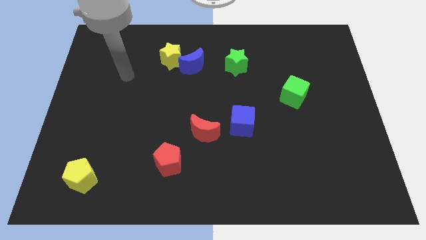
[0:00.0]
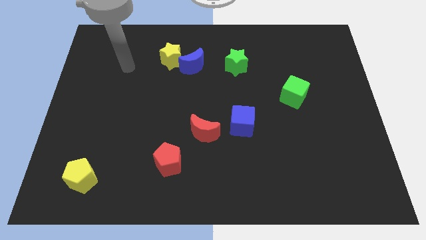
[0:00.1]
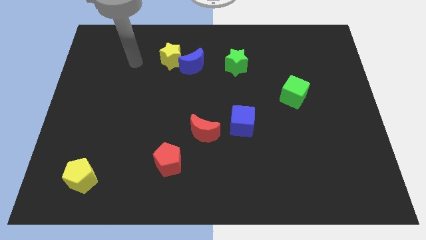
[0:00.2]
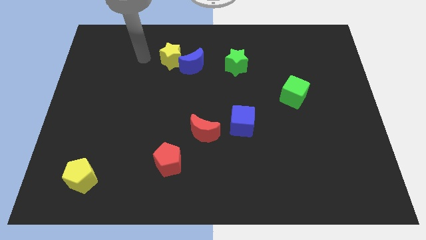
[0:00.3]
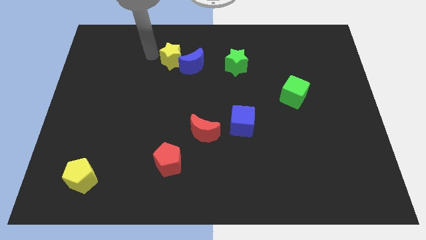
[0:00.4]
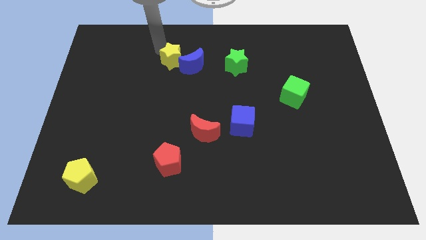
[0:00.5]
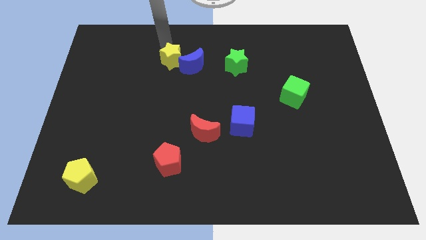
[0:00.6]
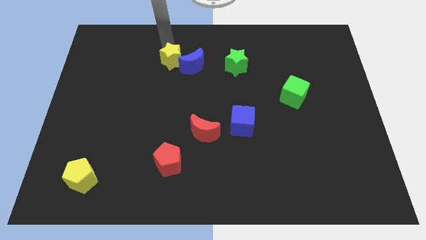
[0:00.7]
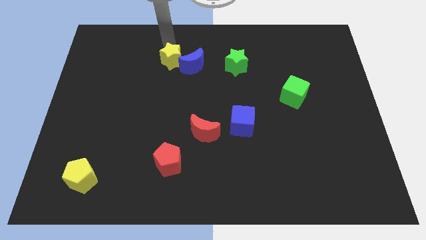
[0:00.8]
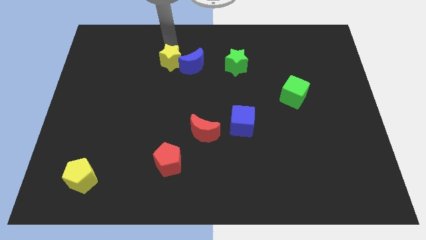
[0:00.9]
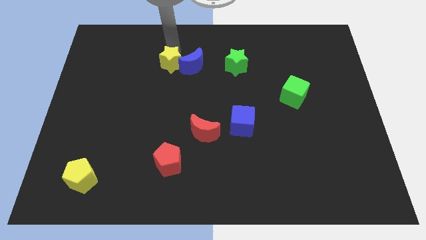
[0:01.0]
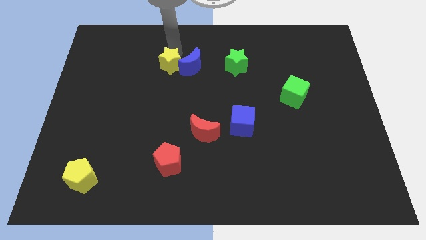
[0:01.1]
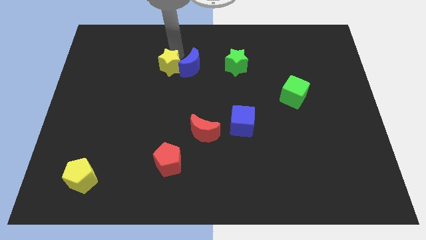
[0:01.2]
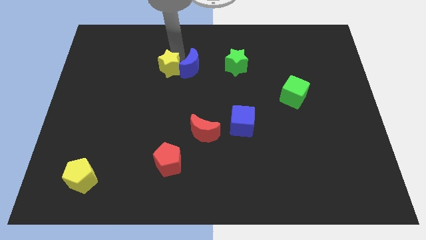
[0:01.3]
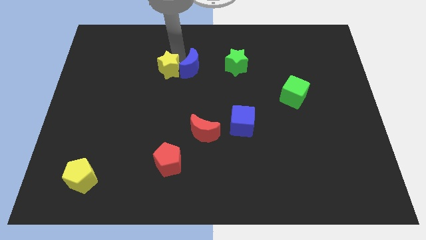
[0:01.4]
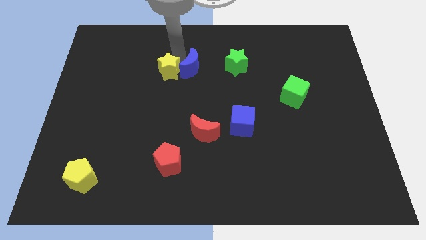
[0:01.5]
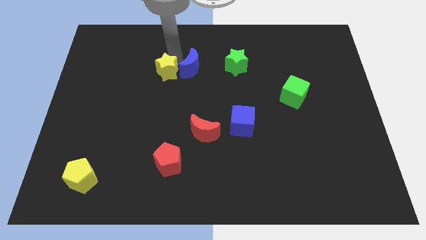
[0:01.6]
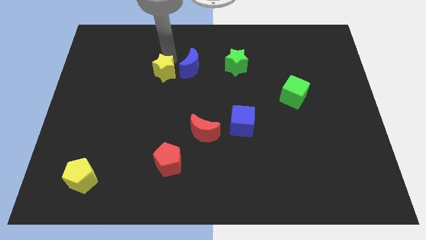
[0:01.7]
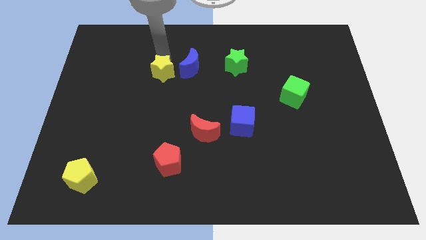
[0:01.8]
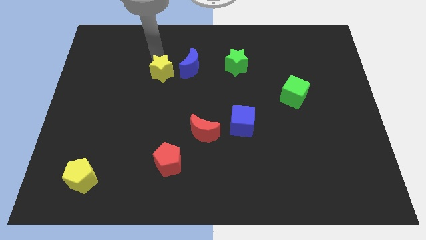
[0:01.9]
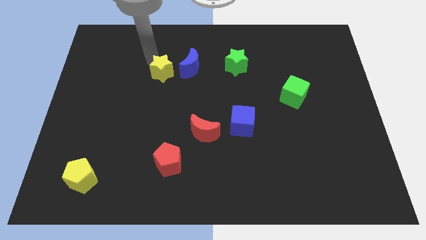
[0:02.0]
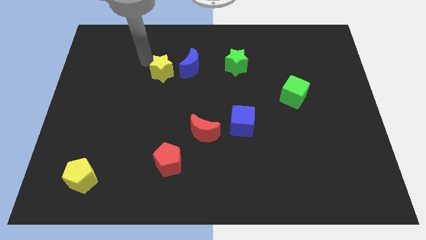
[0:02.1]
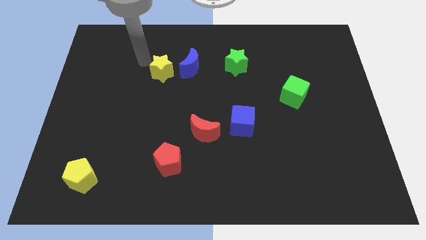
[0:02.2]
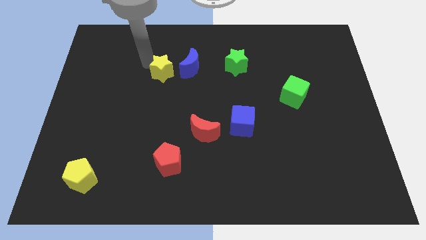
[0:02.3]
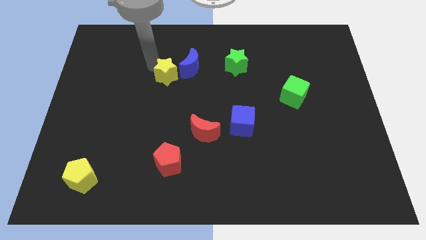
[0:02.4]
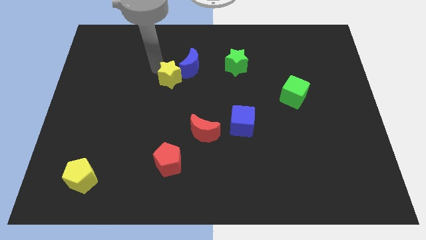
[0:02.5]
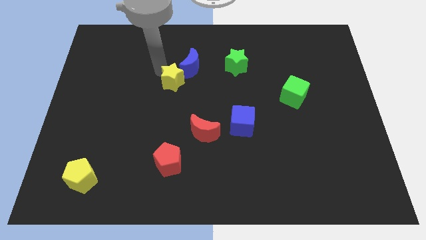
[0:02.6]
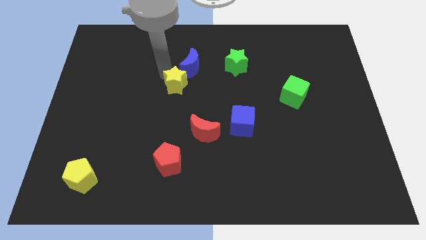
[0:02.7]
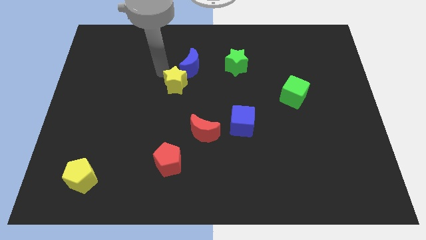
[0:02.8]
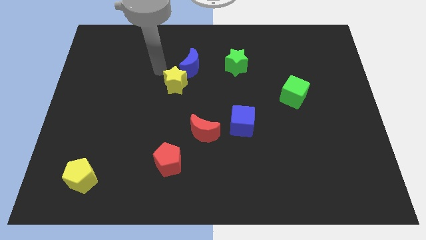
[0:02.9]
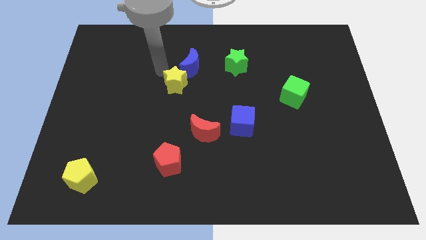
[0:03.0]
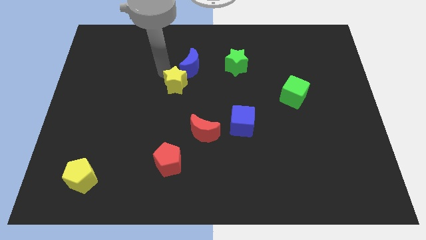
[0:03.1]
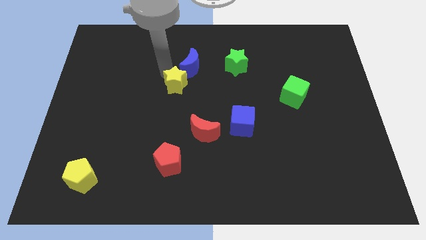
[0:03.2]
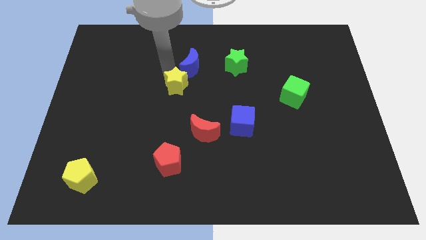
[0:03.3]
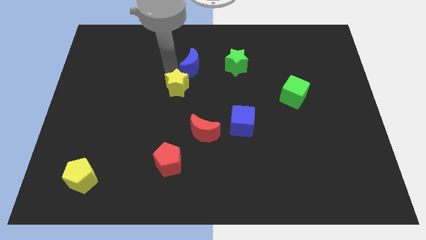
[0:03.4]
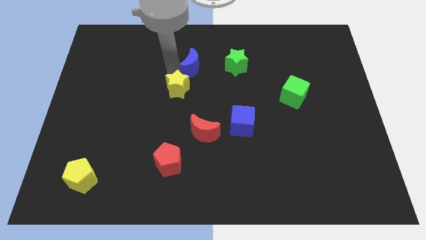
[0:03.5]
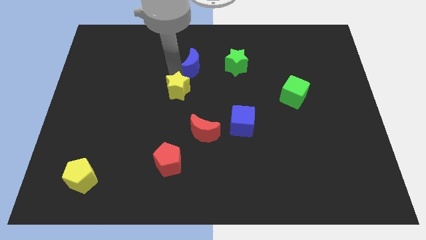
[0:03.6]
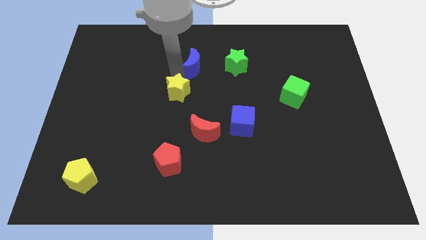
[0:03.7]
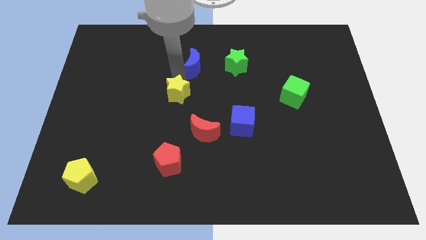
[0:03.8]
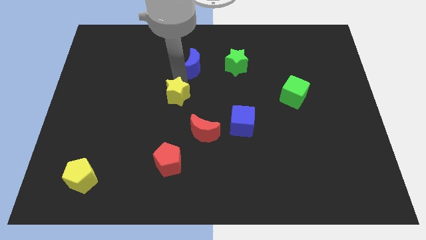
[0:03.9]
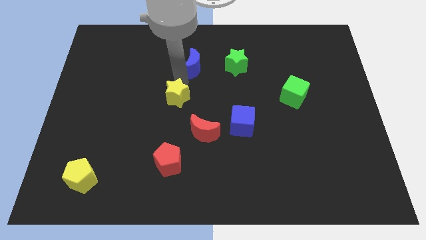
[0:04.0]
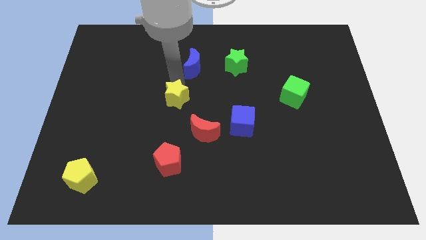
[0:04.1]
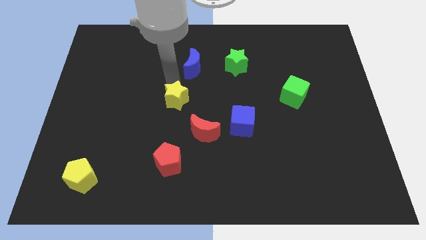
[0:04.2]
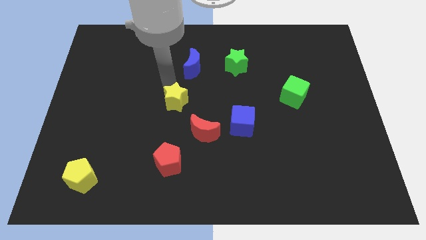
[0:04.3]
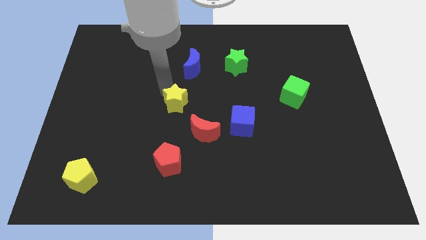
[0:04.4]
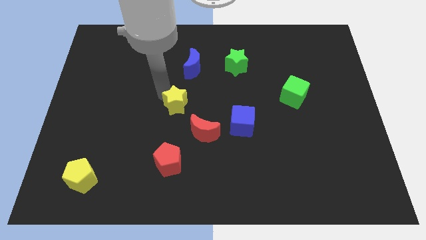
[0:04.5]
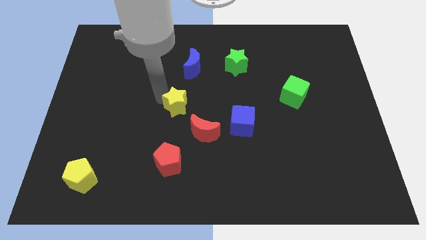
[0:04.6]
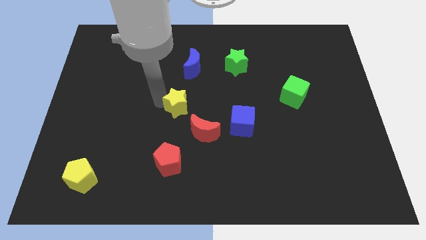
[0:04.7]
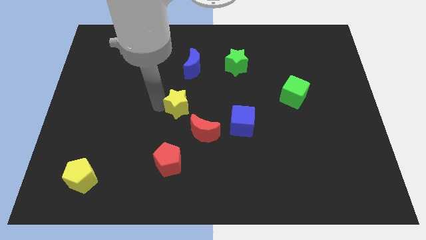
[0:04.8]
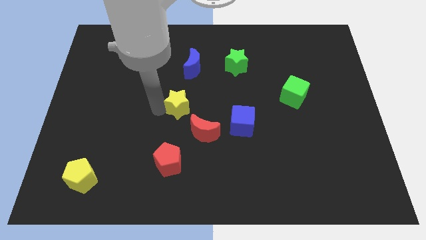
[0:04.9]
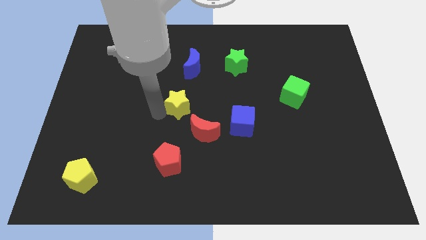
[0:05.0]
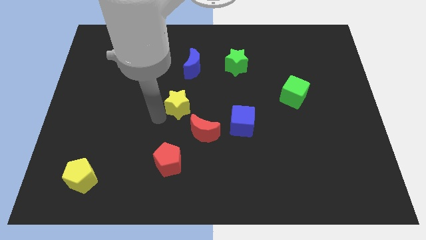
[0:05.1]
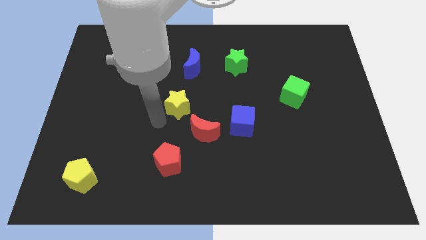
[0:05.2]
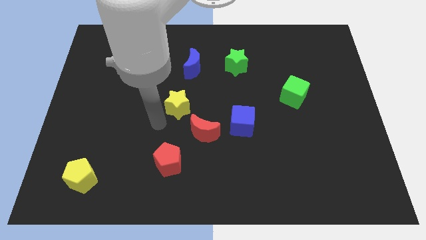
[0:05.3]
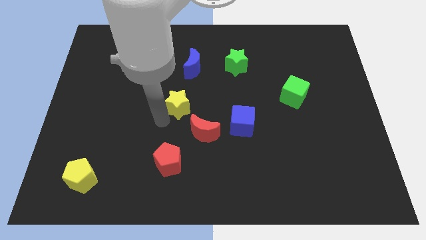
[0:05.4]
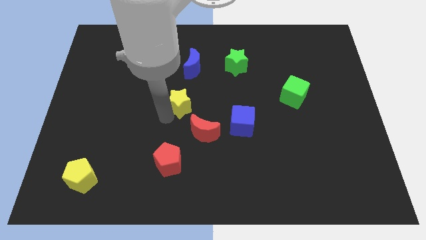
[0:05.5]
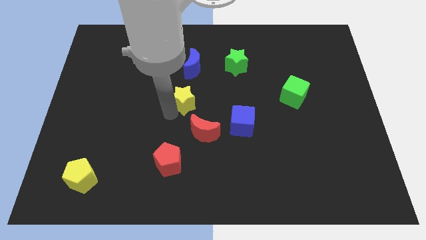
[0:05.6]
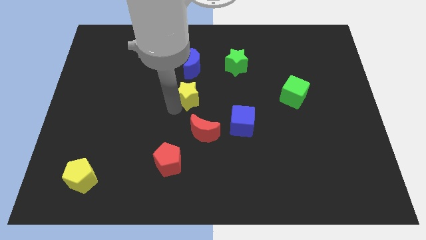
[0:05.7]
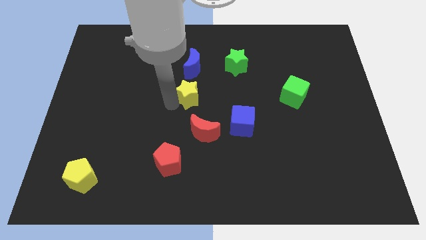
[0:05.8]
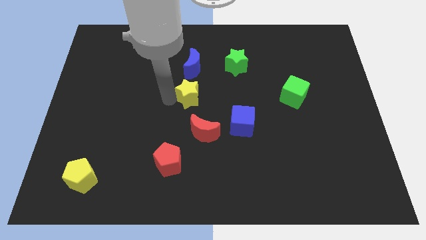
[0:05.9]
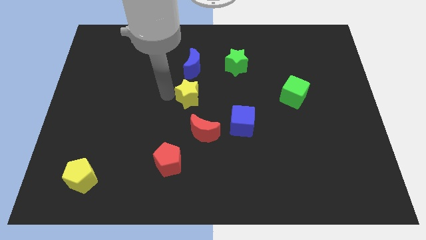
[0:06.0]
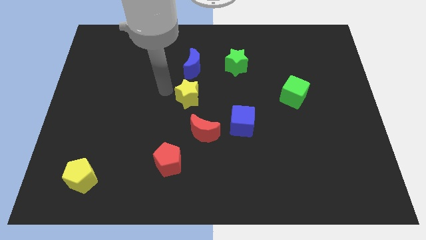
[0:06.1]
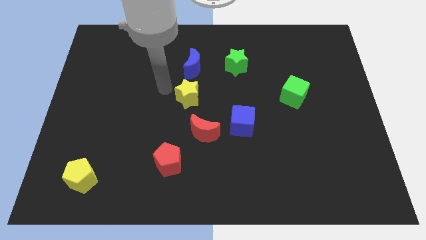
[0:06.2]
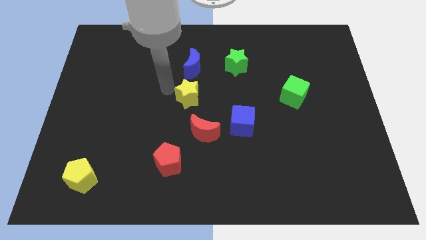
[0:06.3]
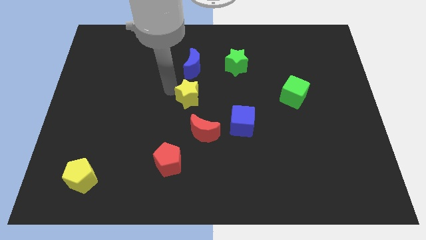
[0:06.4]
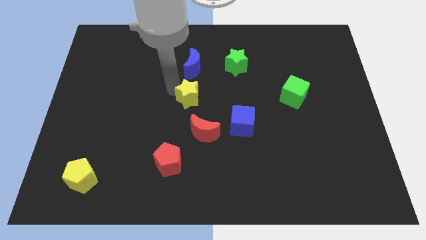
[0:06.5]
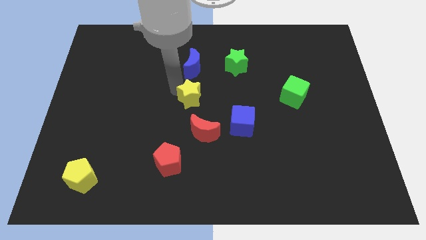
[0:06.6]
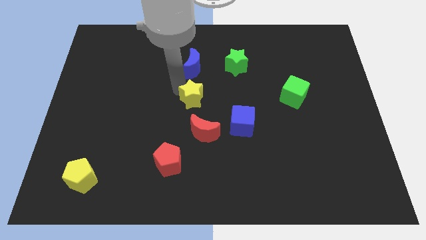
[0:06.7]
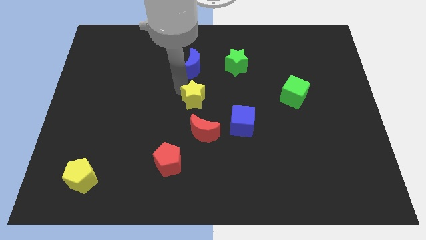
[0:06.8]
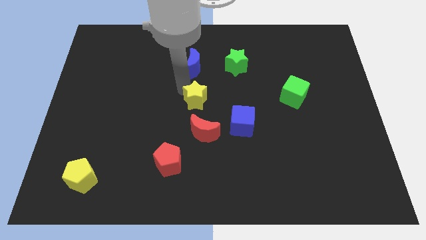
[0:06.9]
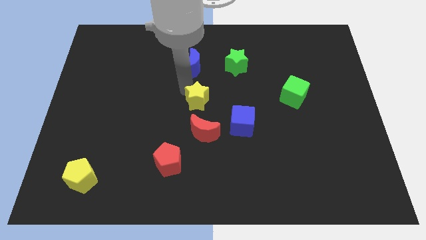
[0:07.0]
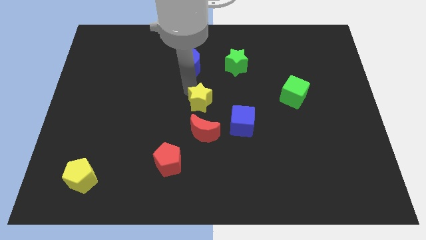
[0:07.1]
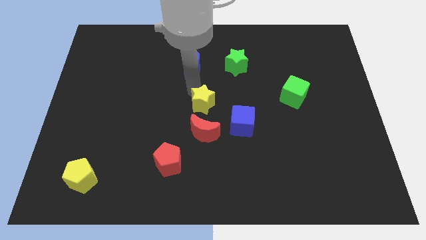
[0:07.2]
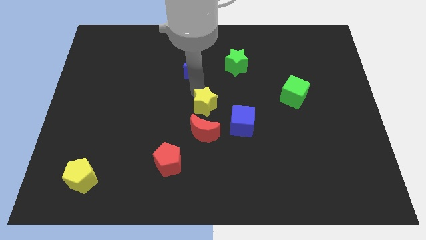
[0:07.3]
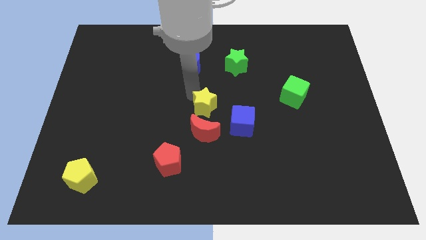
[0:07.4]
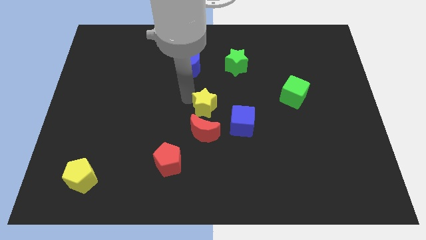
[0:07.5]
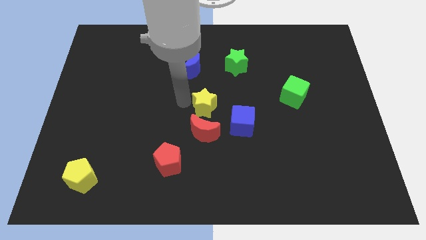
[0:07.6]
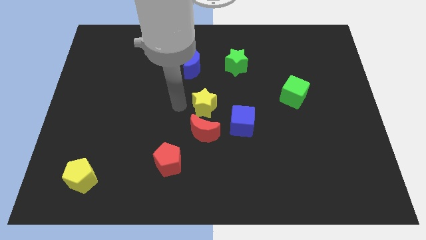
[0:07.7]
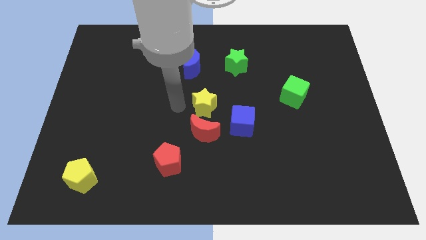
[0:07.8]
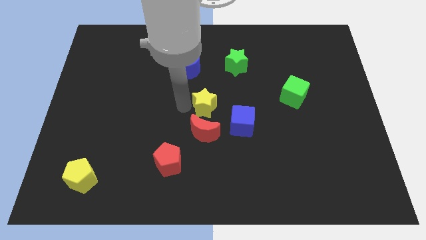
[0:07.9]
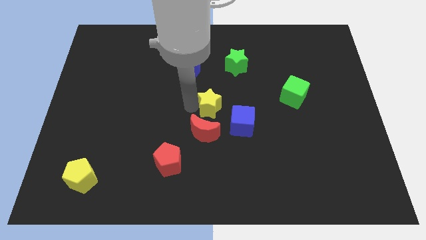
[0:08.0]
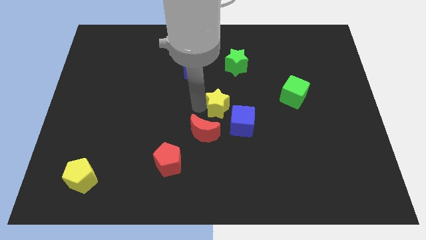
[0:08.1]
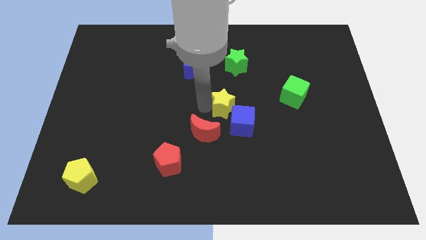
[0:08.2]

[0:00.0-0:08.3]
slide the yellow star downwards and to the right diagonally

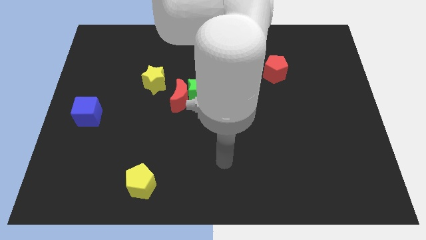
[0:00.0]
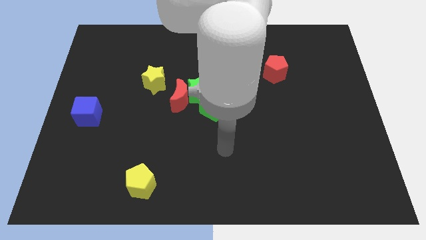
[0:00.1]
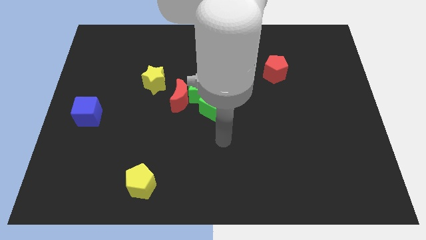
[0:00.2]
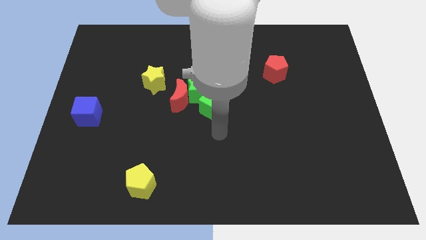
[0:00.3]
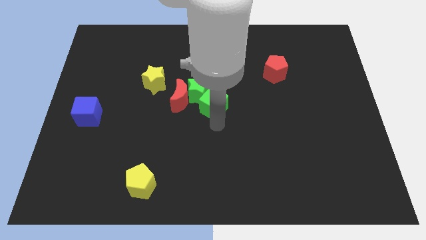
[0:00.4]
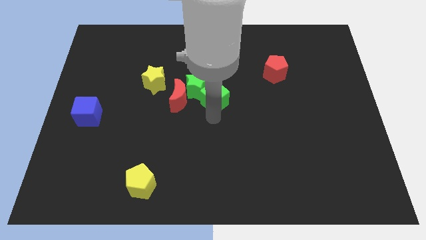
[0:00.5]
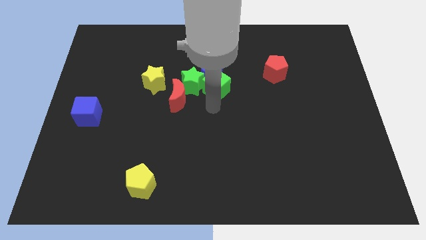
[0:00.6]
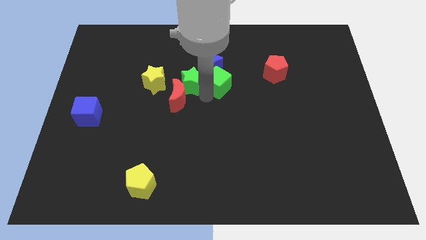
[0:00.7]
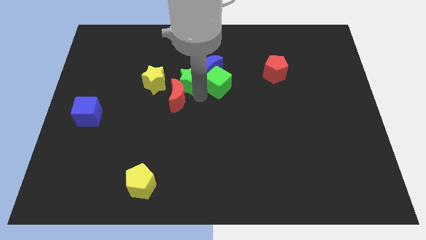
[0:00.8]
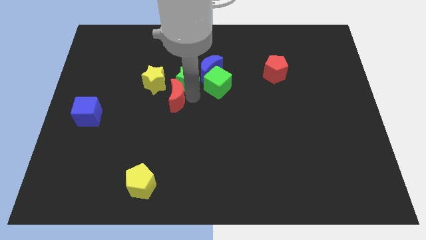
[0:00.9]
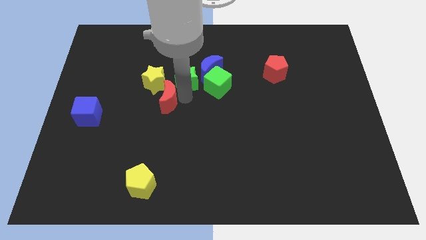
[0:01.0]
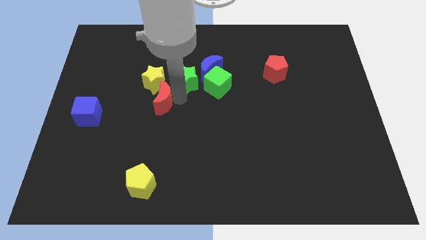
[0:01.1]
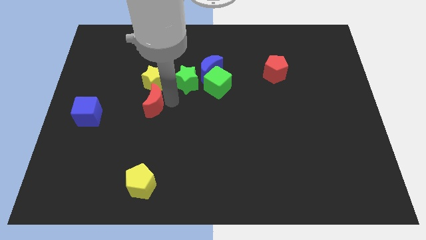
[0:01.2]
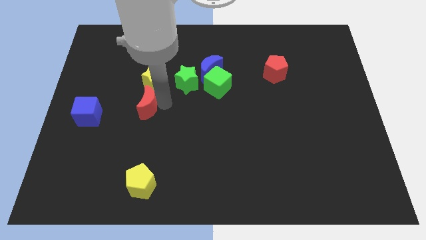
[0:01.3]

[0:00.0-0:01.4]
slightly move the red moon left
